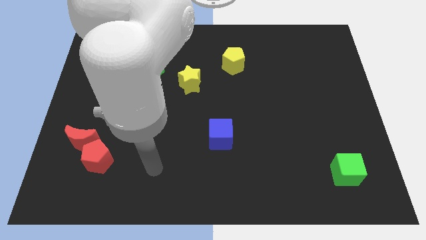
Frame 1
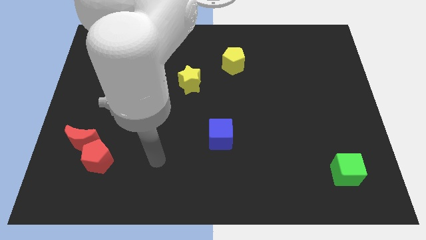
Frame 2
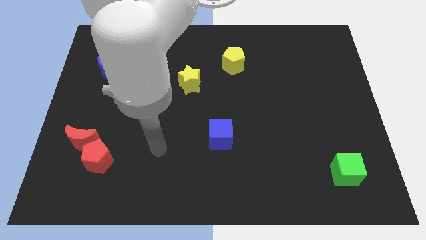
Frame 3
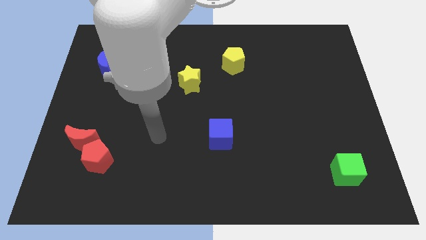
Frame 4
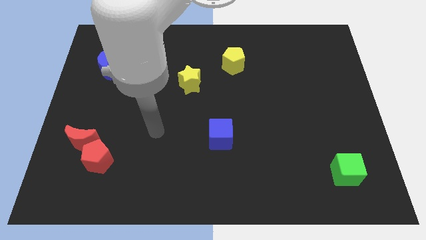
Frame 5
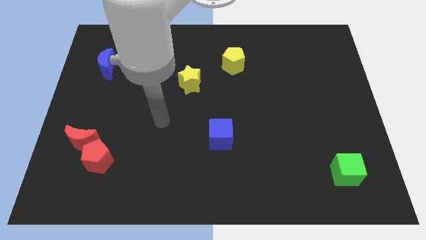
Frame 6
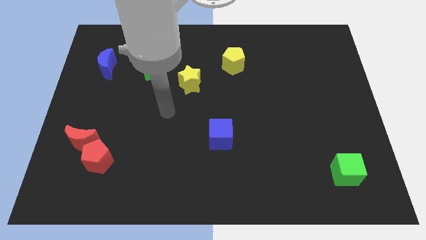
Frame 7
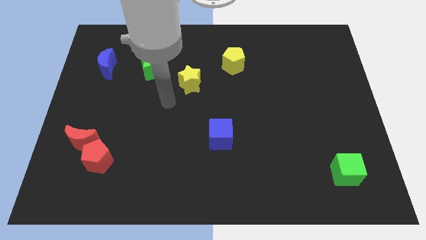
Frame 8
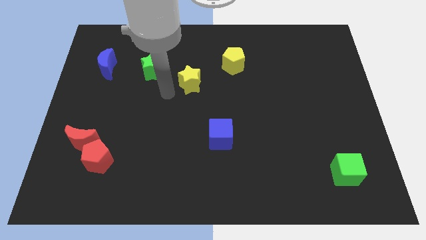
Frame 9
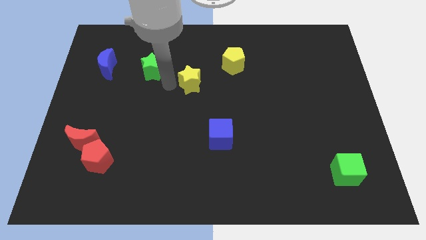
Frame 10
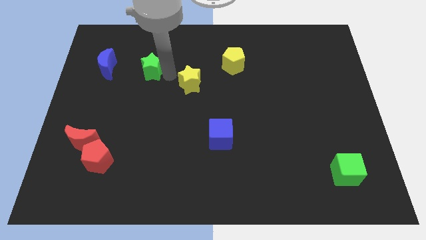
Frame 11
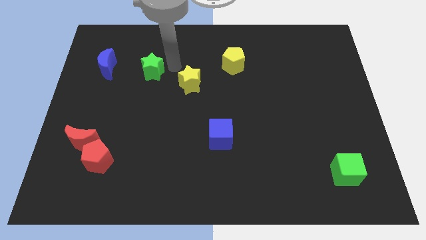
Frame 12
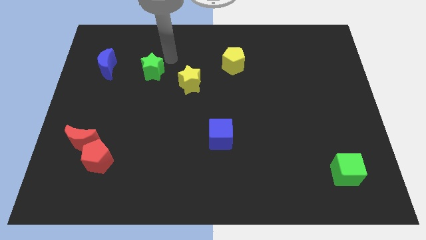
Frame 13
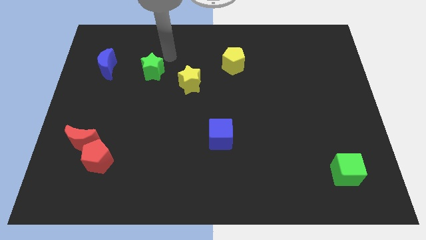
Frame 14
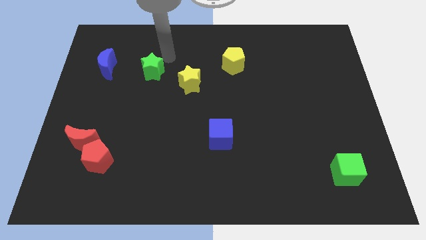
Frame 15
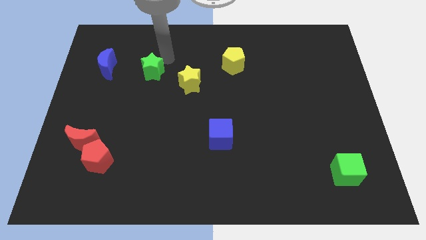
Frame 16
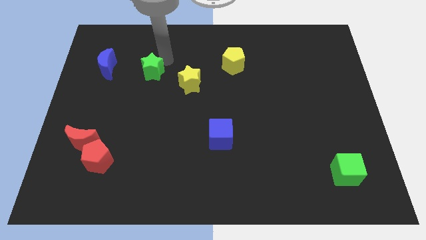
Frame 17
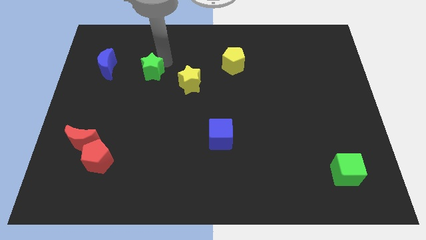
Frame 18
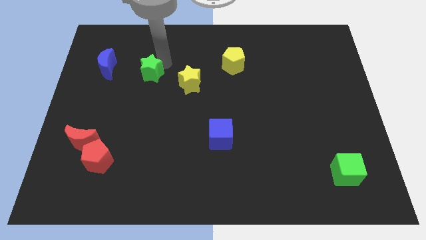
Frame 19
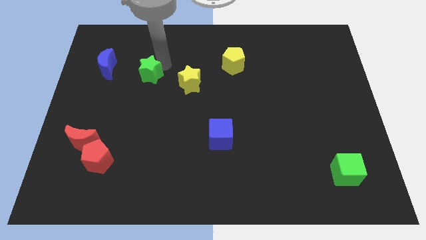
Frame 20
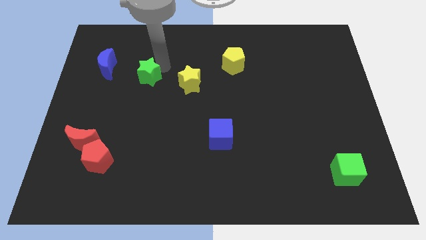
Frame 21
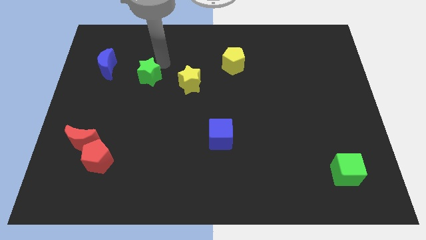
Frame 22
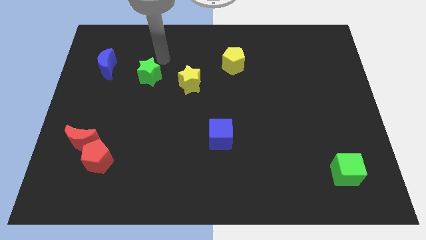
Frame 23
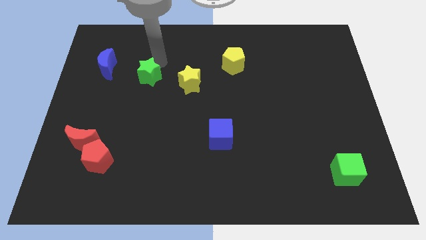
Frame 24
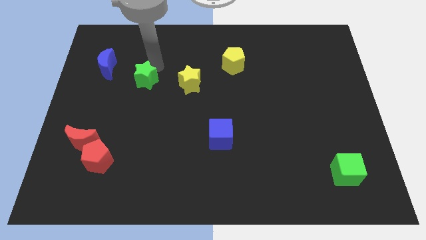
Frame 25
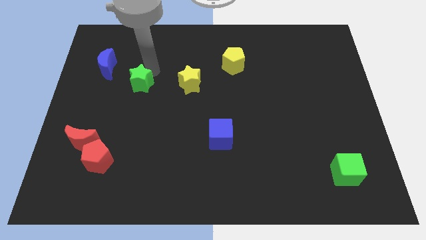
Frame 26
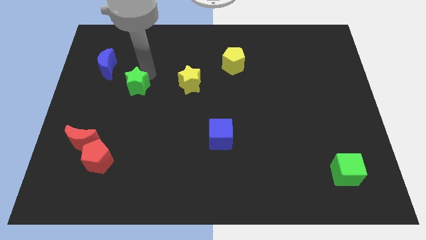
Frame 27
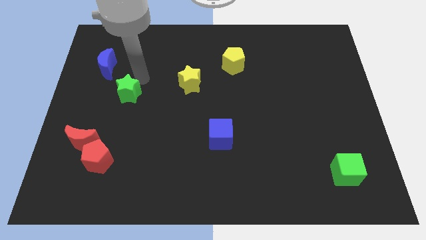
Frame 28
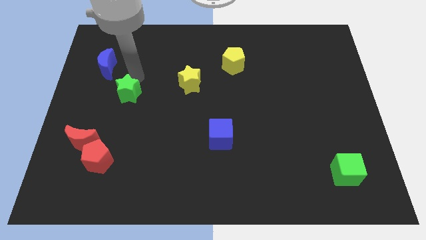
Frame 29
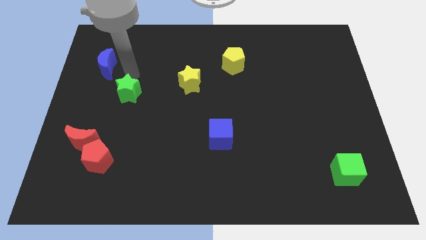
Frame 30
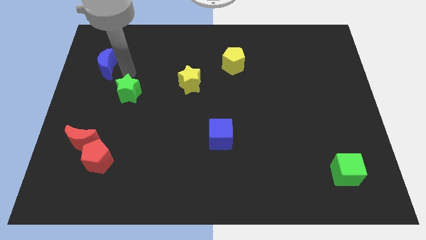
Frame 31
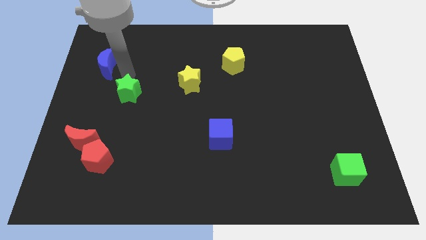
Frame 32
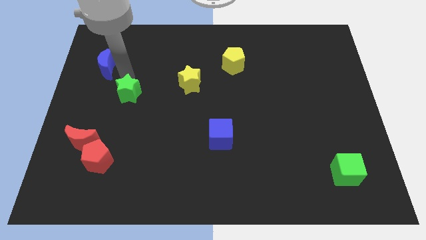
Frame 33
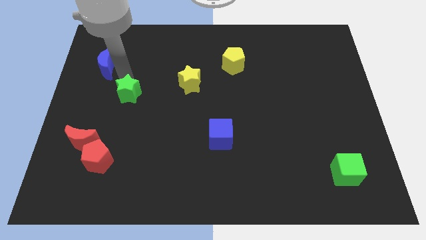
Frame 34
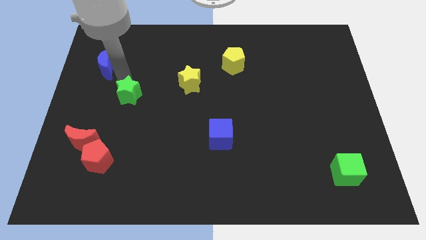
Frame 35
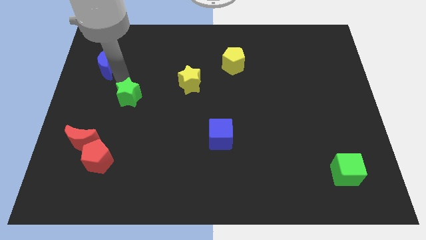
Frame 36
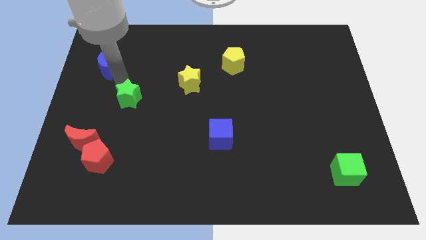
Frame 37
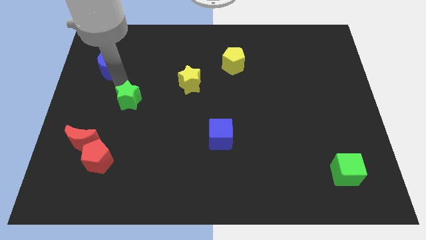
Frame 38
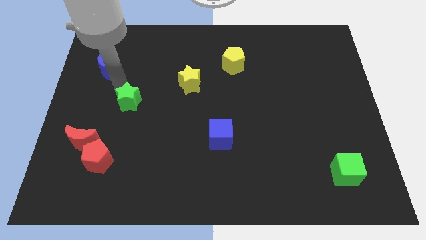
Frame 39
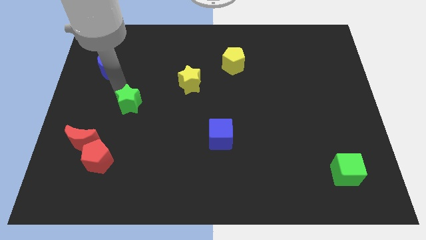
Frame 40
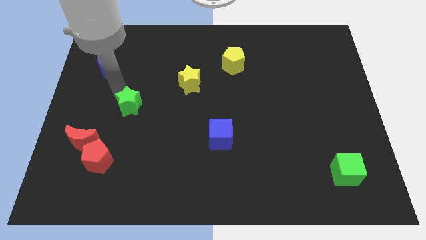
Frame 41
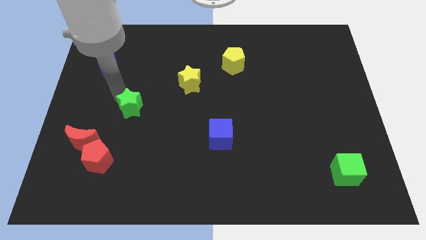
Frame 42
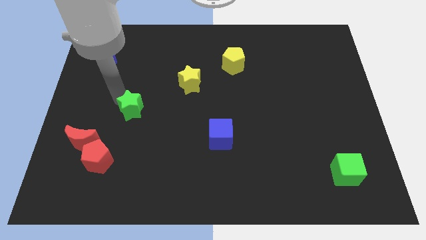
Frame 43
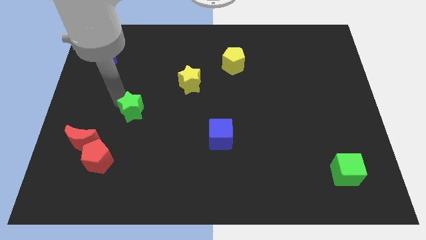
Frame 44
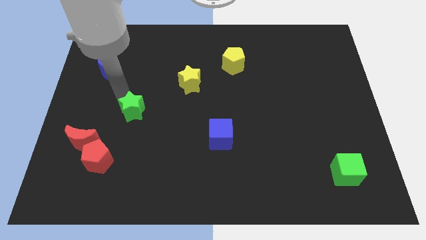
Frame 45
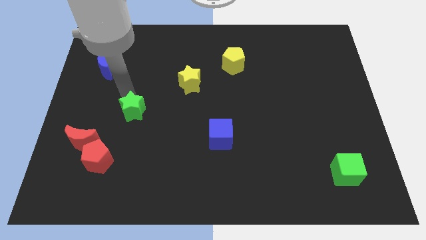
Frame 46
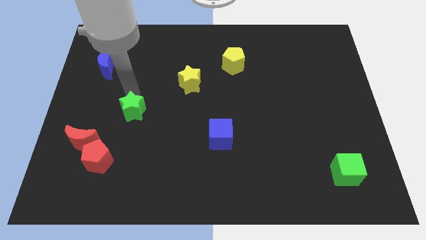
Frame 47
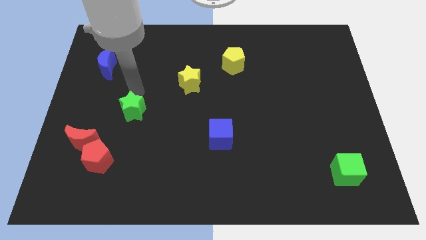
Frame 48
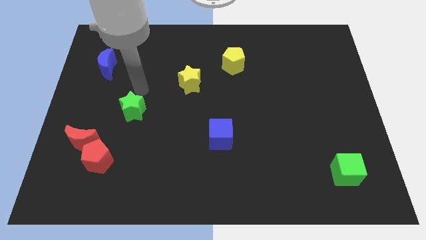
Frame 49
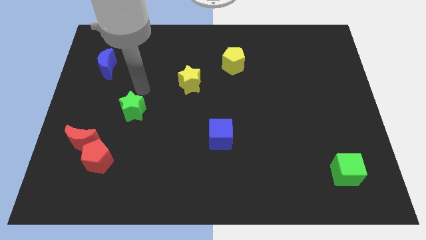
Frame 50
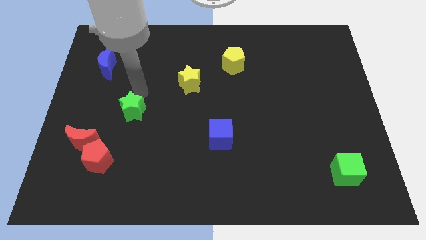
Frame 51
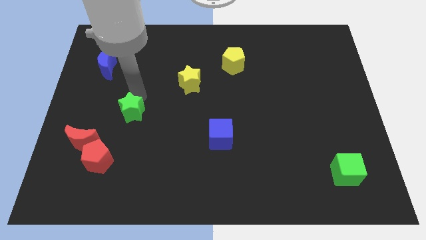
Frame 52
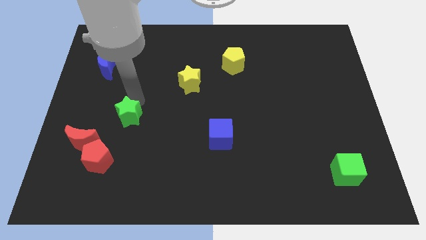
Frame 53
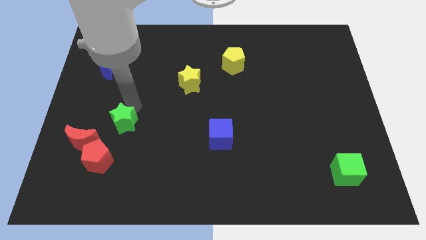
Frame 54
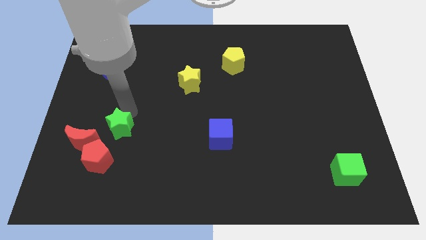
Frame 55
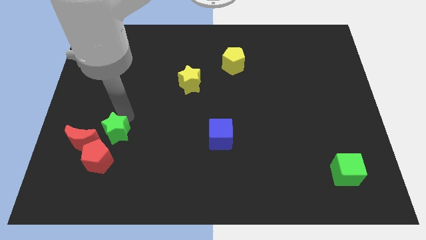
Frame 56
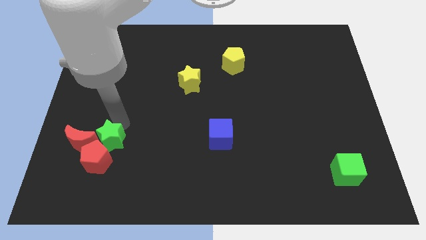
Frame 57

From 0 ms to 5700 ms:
push the green star to the red pentagon

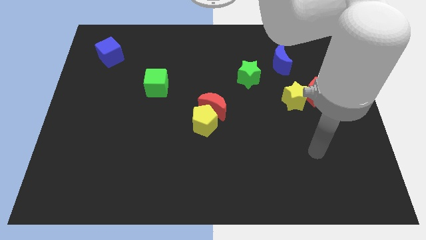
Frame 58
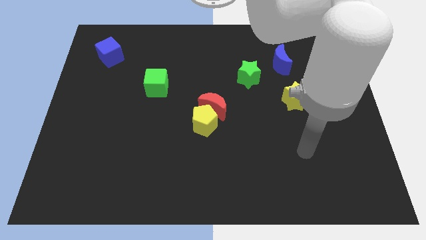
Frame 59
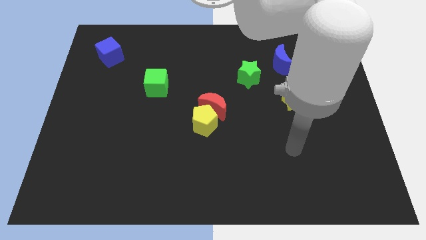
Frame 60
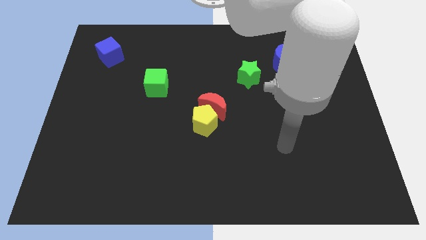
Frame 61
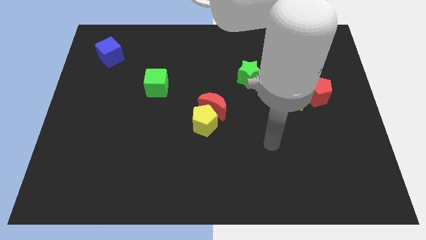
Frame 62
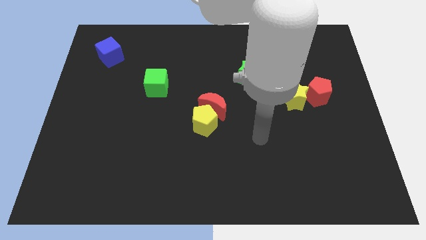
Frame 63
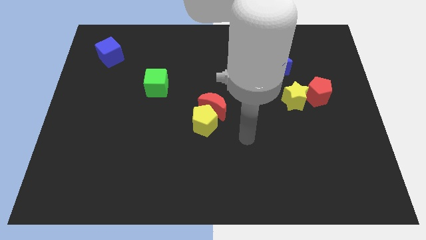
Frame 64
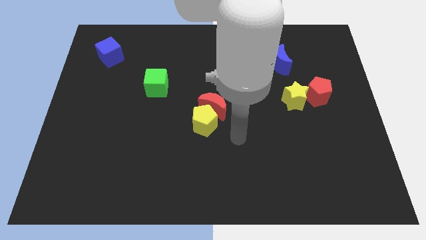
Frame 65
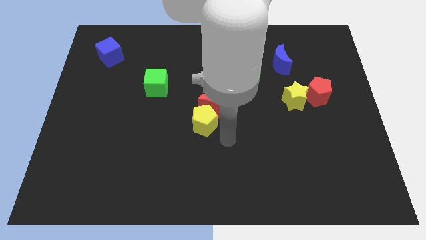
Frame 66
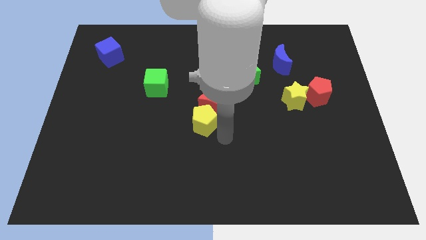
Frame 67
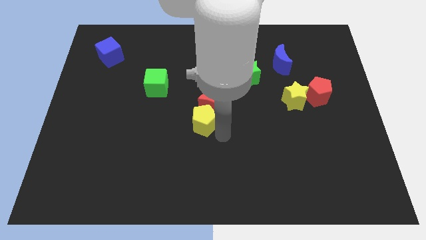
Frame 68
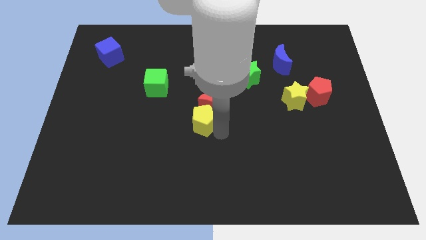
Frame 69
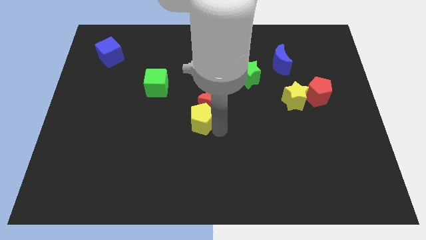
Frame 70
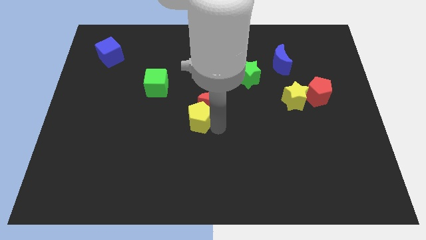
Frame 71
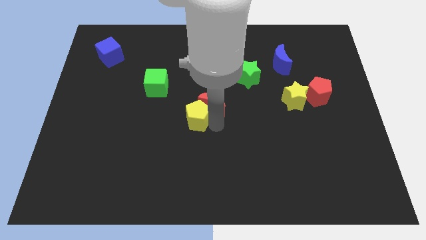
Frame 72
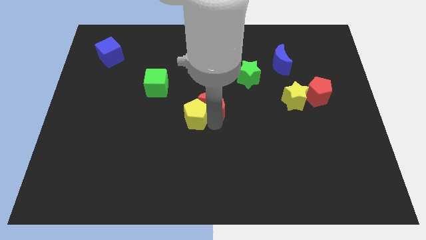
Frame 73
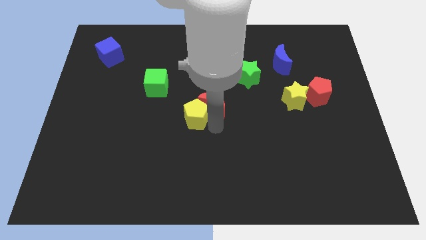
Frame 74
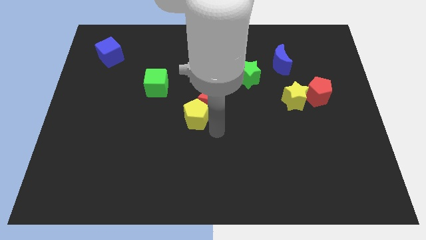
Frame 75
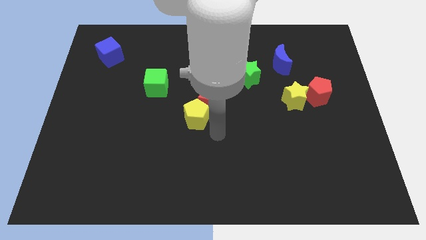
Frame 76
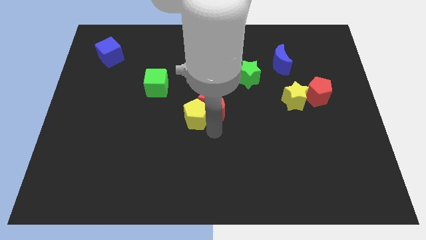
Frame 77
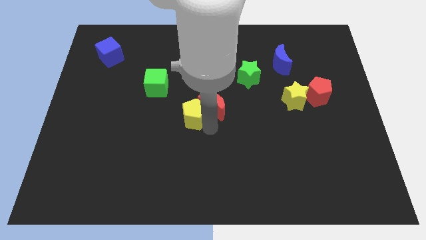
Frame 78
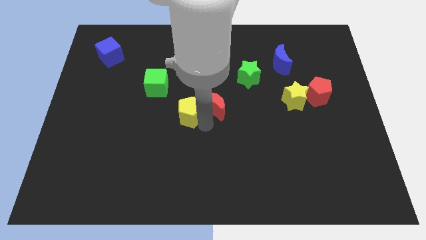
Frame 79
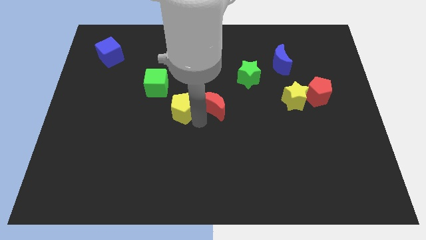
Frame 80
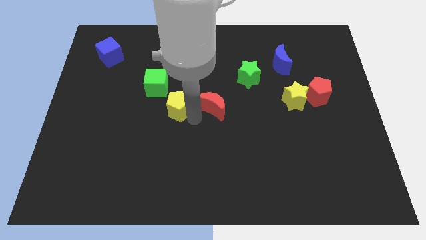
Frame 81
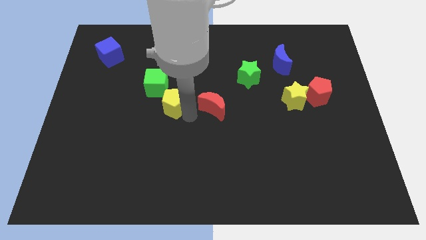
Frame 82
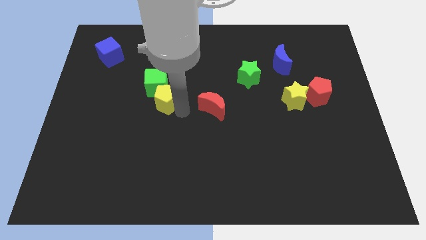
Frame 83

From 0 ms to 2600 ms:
slide the yellow pentagon to the green cube
